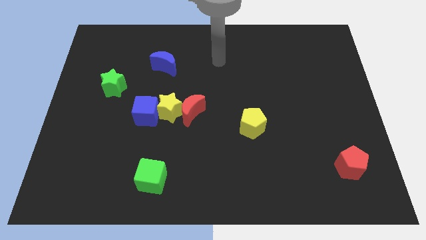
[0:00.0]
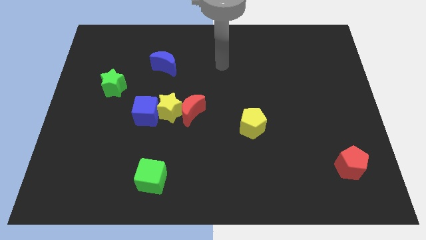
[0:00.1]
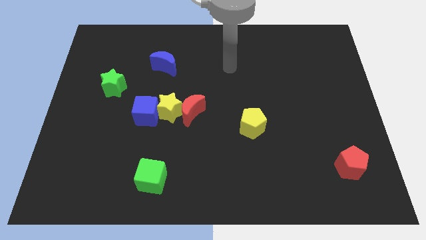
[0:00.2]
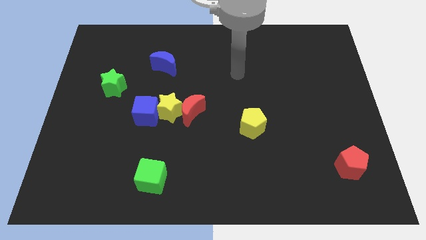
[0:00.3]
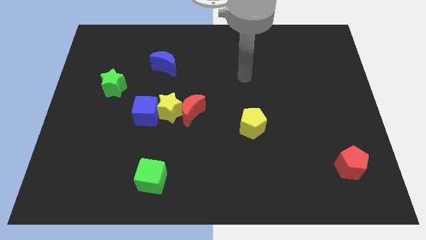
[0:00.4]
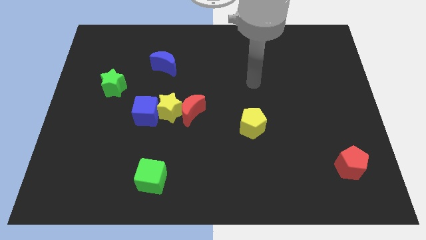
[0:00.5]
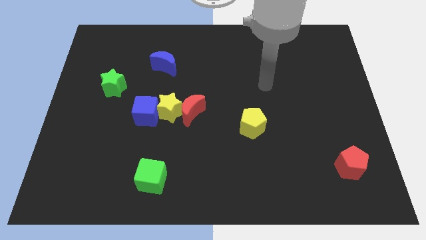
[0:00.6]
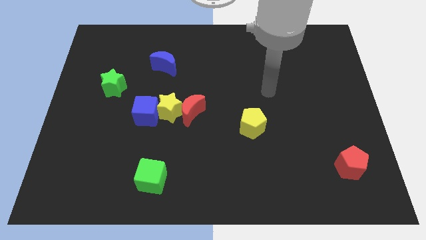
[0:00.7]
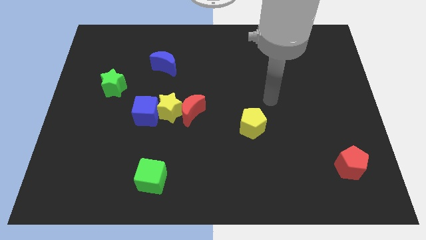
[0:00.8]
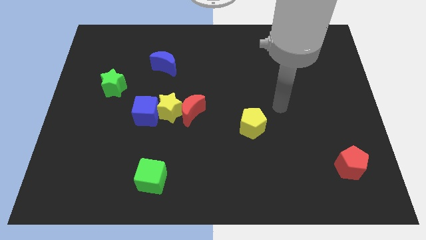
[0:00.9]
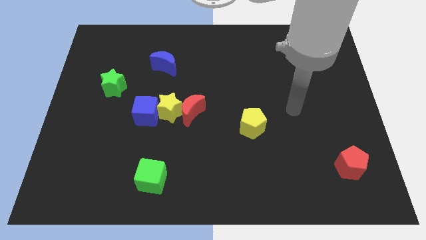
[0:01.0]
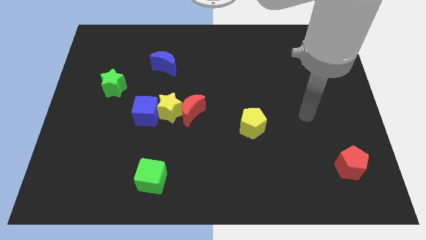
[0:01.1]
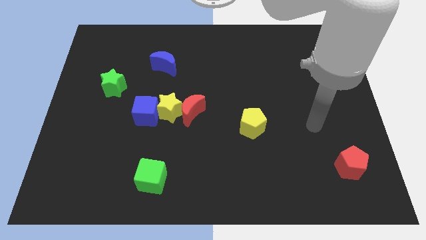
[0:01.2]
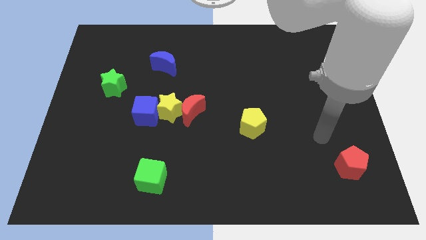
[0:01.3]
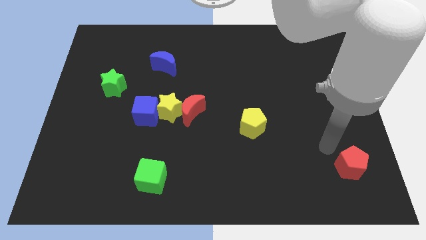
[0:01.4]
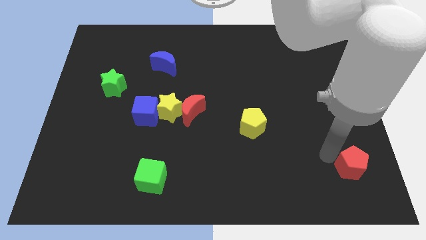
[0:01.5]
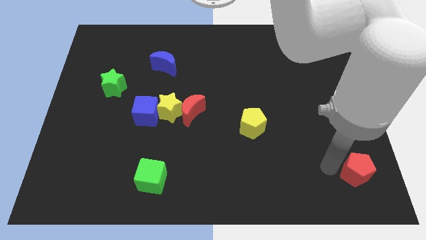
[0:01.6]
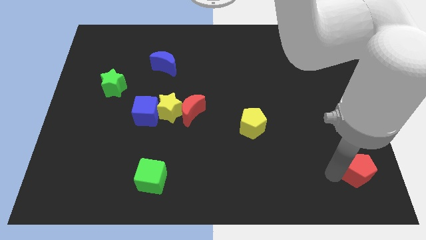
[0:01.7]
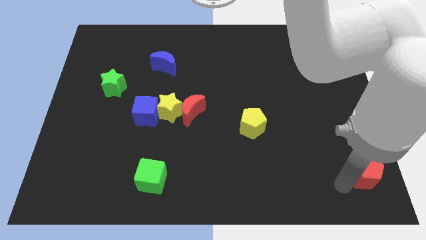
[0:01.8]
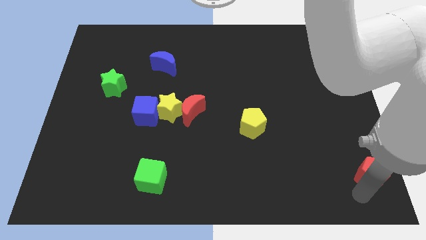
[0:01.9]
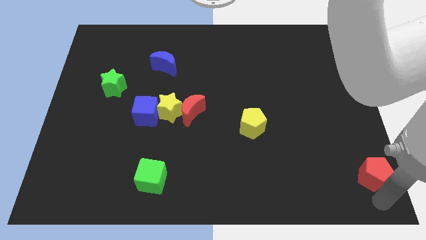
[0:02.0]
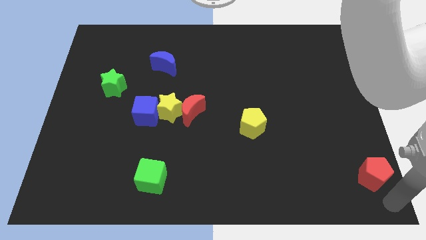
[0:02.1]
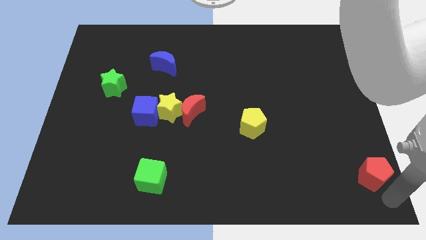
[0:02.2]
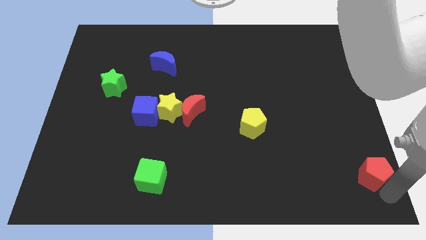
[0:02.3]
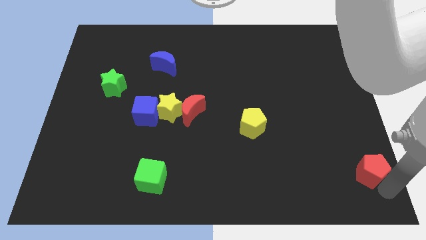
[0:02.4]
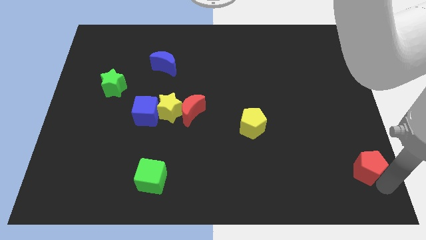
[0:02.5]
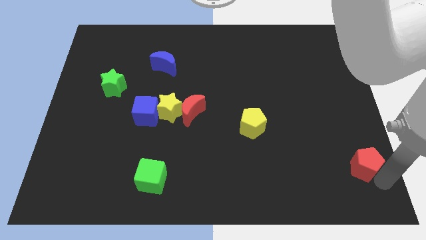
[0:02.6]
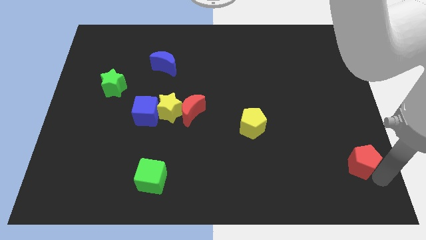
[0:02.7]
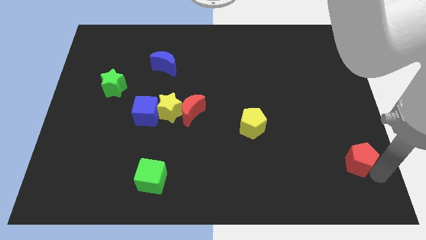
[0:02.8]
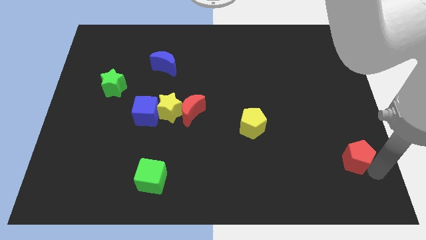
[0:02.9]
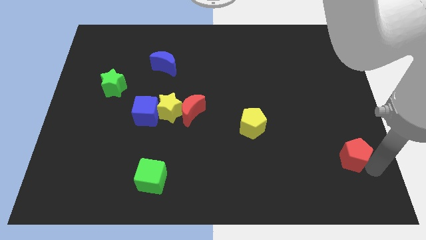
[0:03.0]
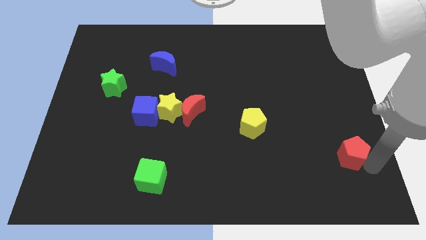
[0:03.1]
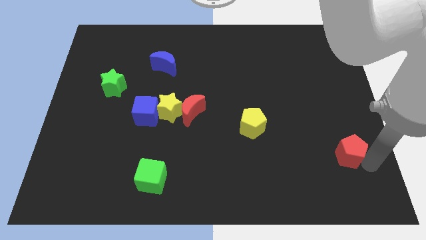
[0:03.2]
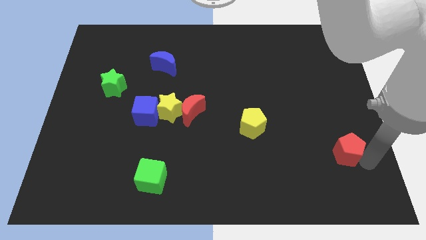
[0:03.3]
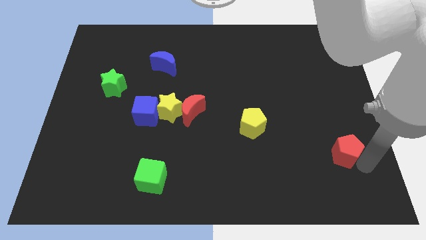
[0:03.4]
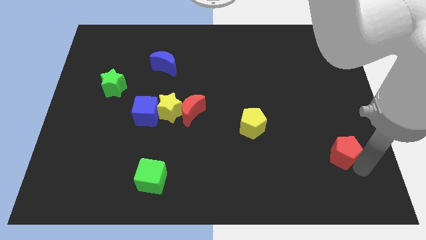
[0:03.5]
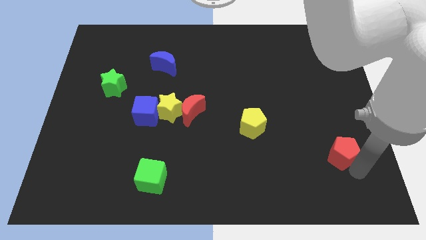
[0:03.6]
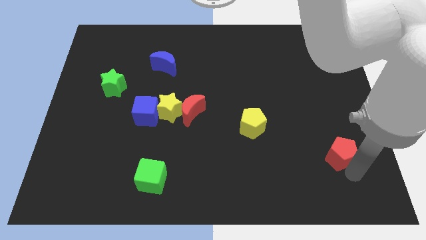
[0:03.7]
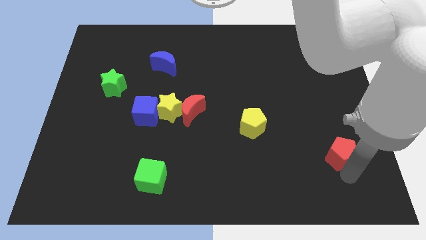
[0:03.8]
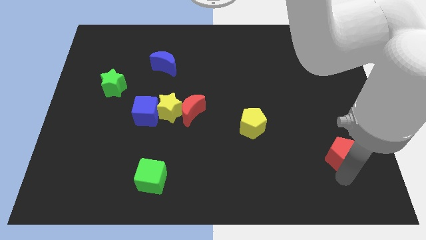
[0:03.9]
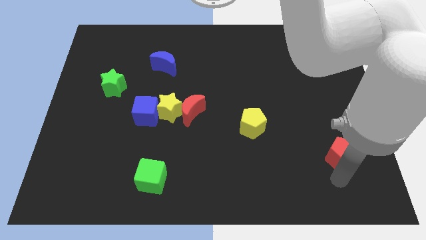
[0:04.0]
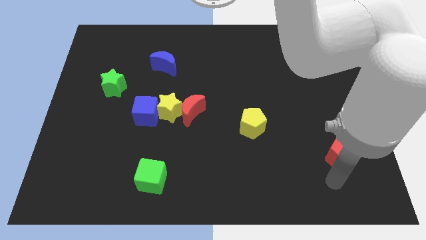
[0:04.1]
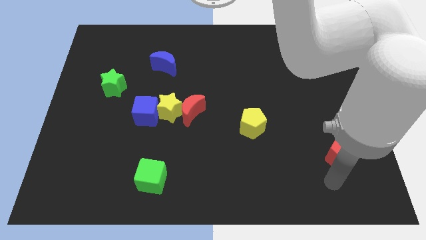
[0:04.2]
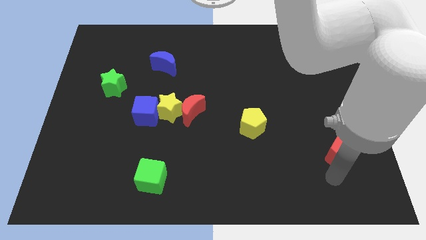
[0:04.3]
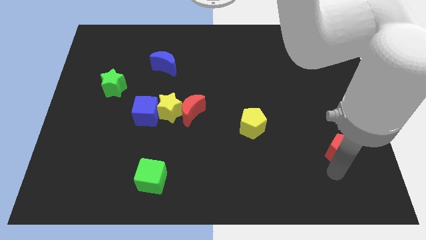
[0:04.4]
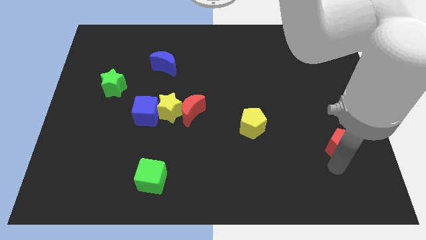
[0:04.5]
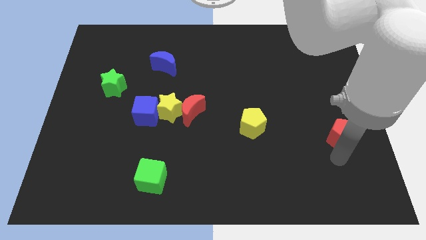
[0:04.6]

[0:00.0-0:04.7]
push the red pentagon a little bit upwards

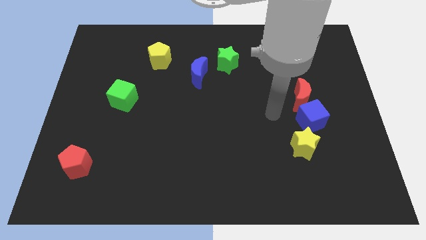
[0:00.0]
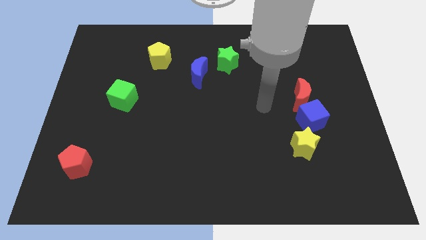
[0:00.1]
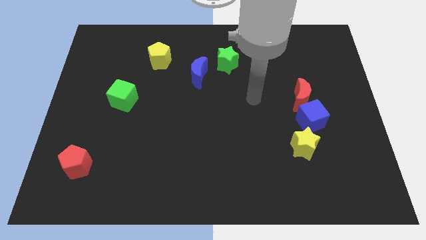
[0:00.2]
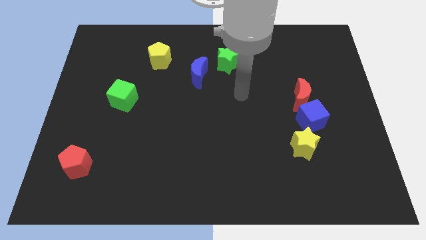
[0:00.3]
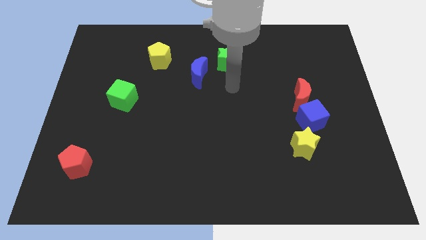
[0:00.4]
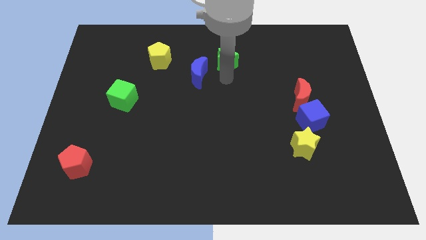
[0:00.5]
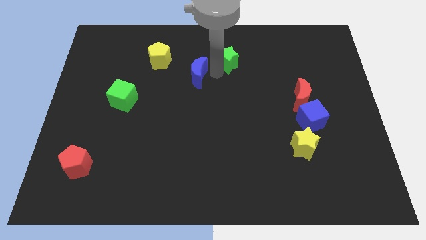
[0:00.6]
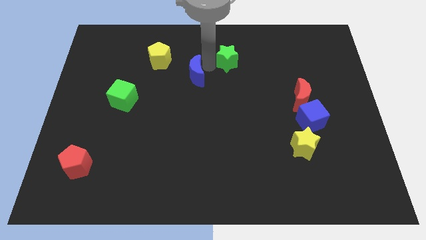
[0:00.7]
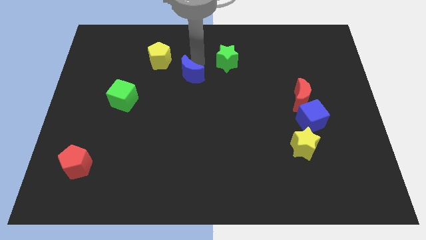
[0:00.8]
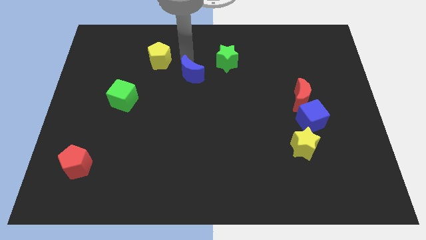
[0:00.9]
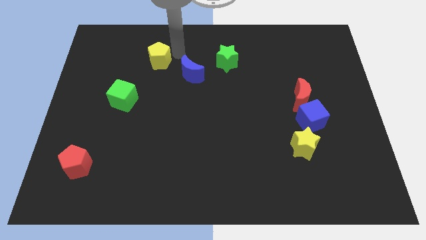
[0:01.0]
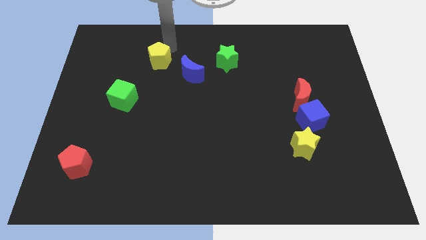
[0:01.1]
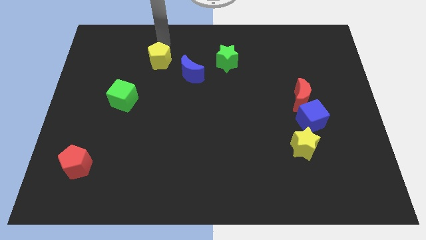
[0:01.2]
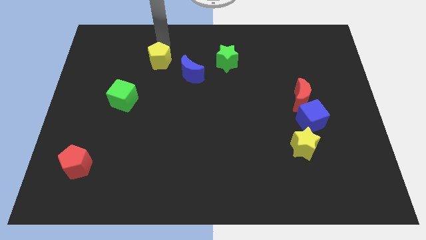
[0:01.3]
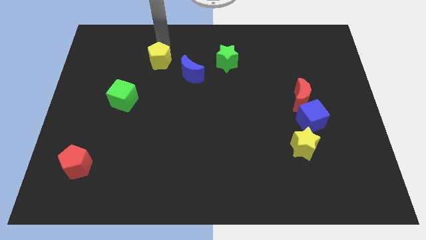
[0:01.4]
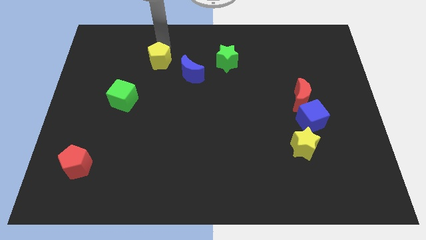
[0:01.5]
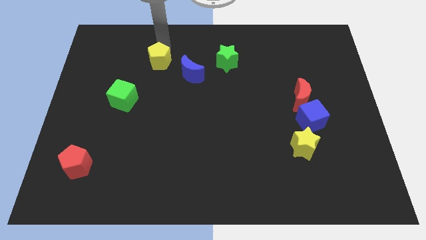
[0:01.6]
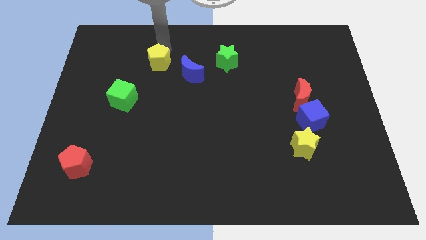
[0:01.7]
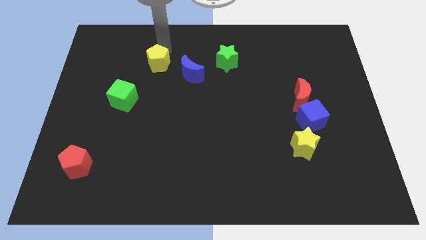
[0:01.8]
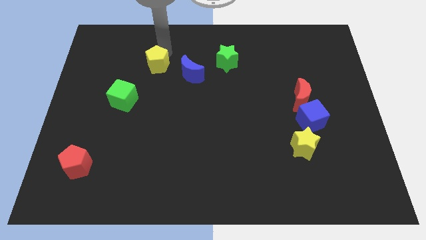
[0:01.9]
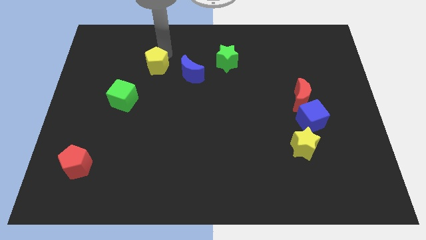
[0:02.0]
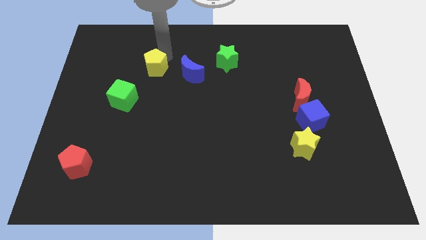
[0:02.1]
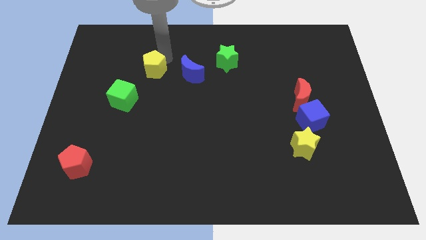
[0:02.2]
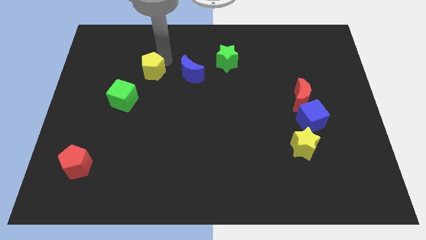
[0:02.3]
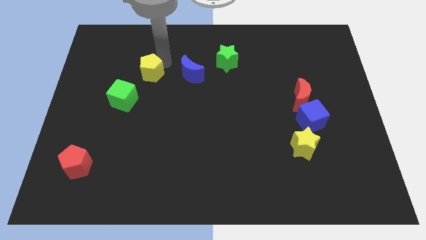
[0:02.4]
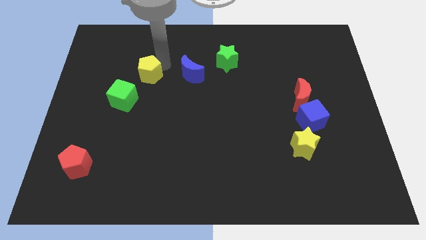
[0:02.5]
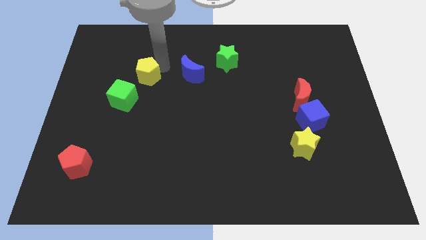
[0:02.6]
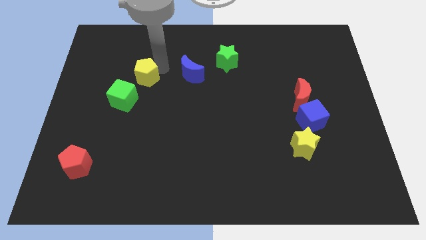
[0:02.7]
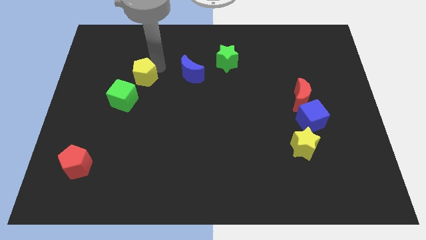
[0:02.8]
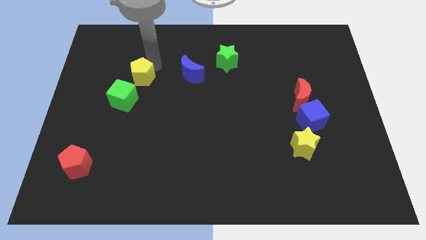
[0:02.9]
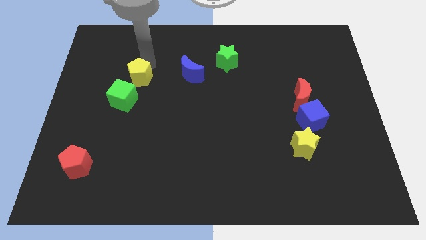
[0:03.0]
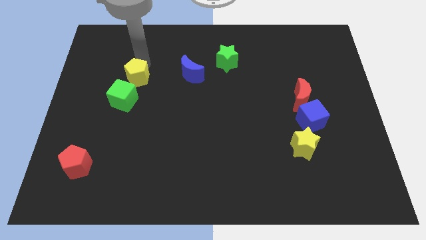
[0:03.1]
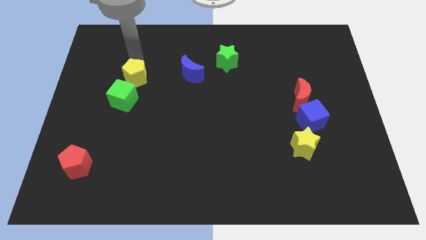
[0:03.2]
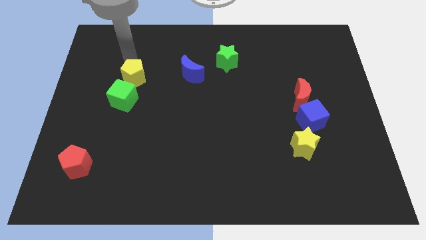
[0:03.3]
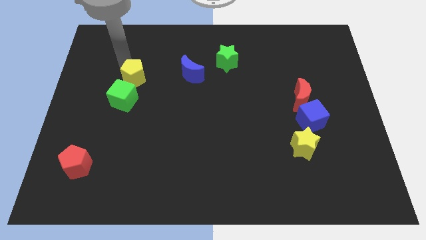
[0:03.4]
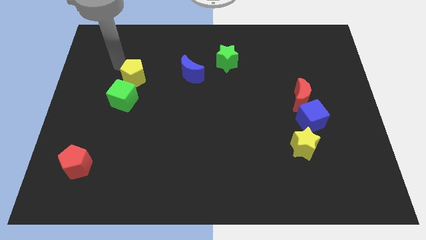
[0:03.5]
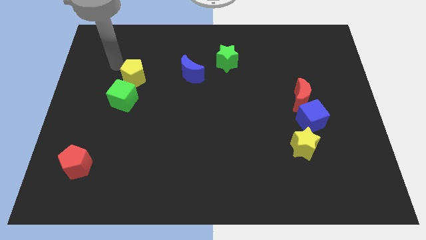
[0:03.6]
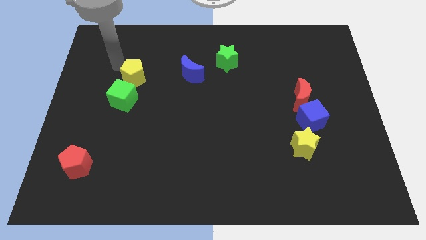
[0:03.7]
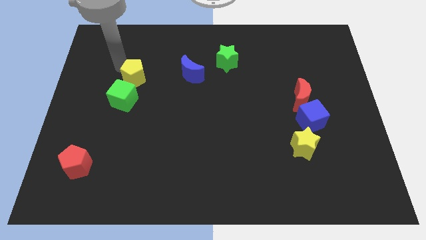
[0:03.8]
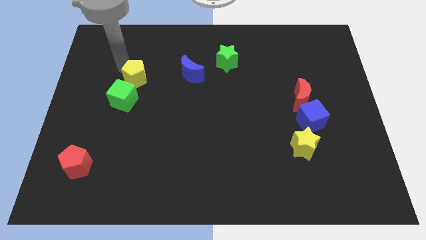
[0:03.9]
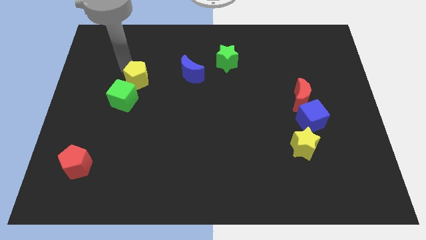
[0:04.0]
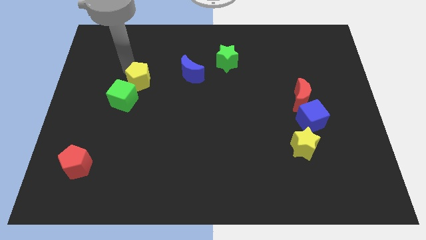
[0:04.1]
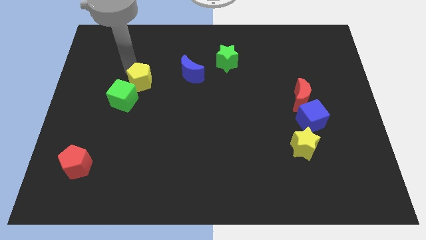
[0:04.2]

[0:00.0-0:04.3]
slightly slide the yellow pentagon down
